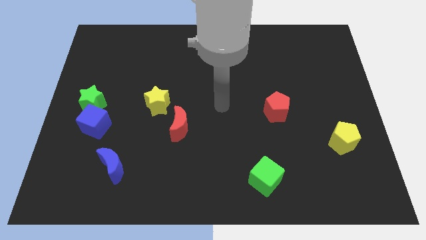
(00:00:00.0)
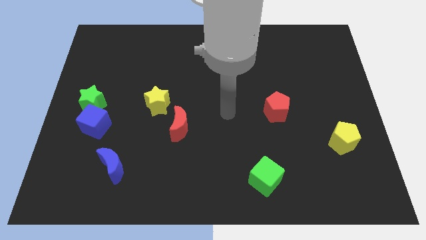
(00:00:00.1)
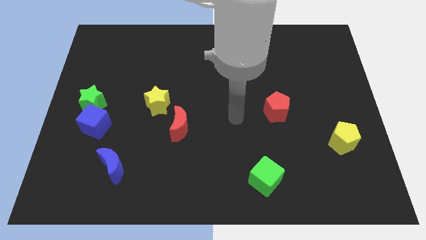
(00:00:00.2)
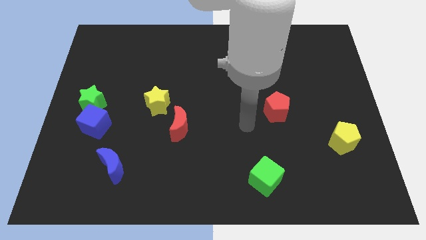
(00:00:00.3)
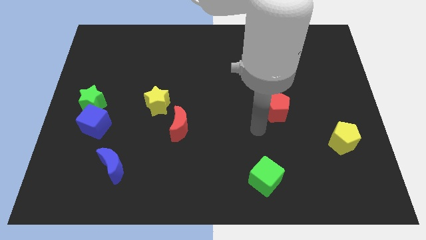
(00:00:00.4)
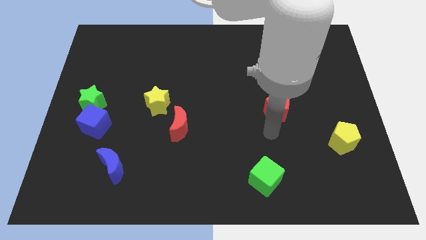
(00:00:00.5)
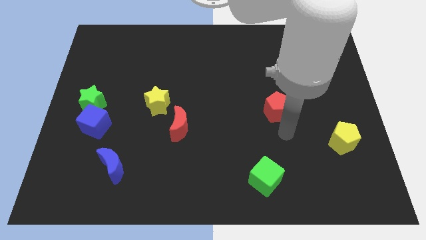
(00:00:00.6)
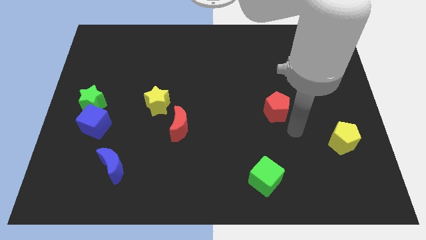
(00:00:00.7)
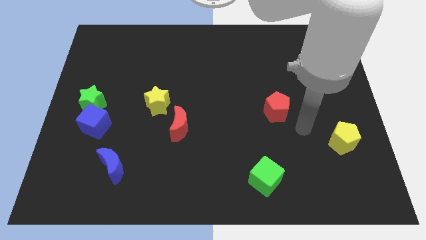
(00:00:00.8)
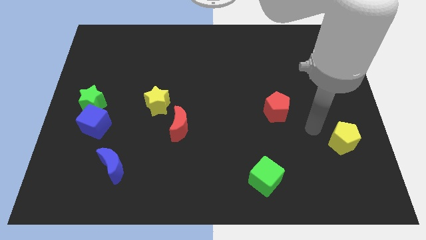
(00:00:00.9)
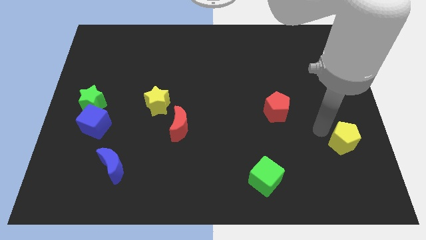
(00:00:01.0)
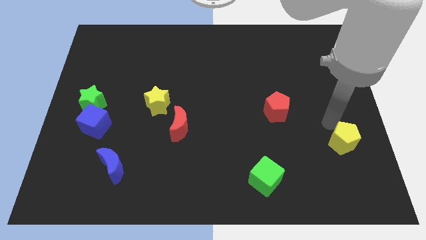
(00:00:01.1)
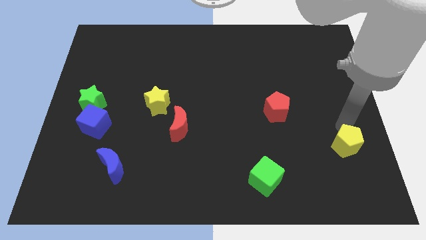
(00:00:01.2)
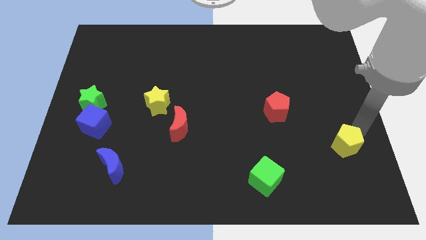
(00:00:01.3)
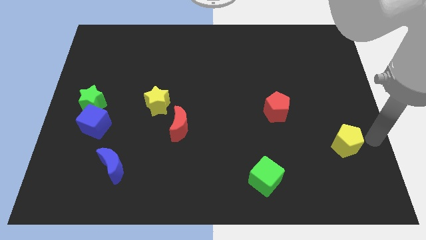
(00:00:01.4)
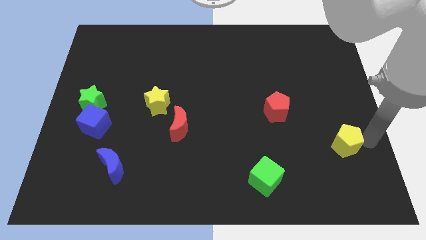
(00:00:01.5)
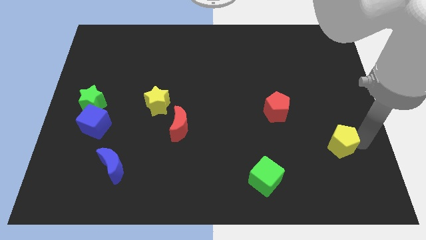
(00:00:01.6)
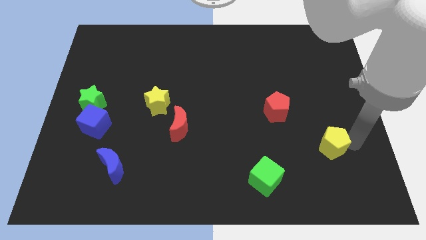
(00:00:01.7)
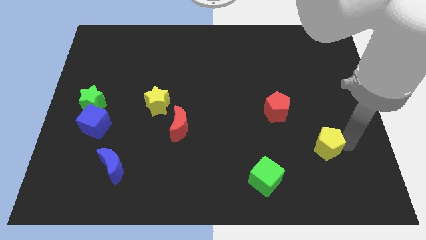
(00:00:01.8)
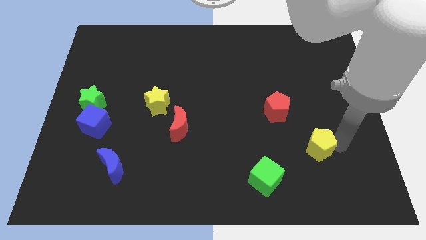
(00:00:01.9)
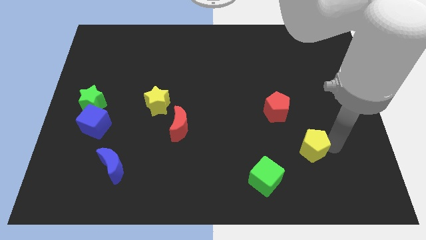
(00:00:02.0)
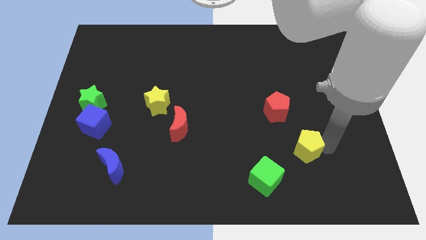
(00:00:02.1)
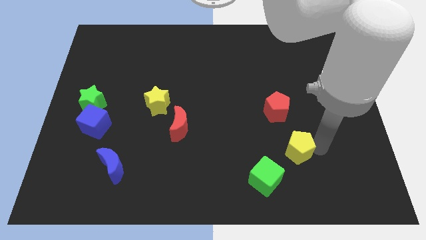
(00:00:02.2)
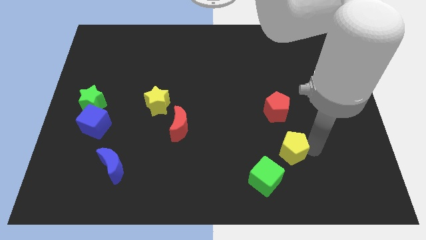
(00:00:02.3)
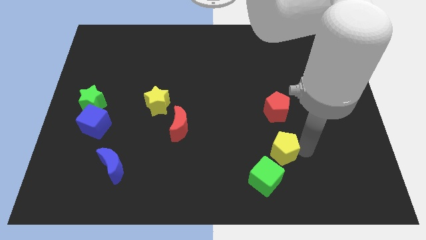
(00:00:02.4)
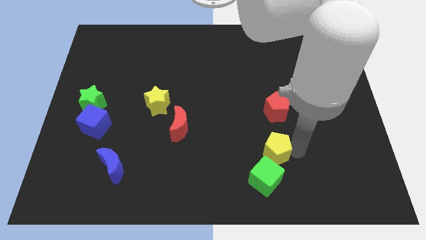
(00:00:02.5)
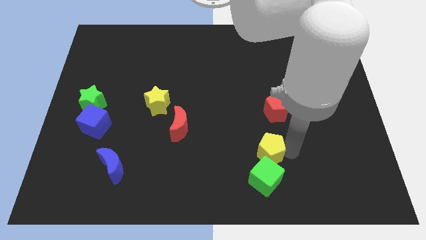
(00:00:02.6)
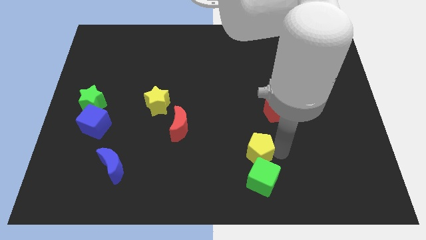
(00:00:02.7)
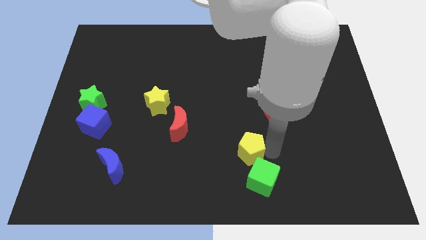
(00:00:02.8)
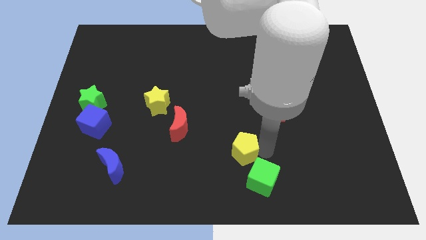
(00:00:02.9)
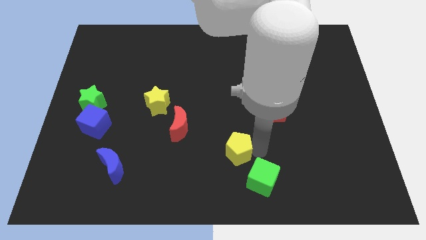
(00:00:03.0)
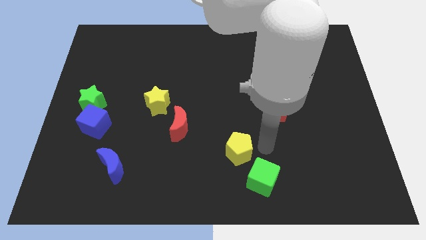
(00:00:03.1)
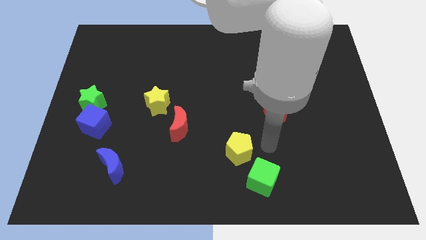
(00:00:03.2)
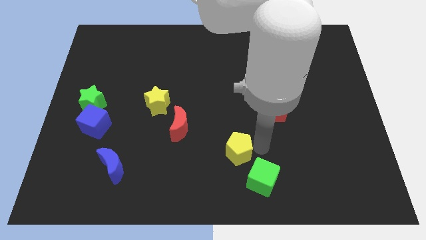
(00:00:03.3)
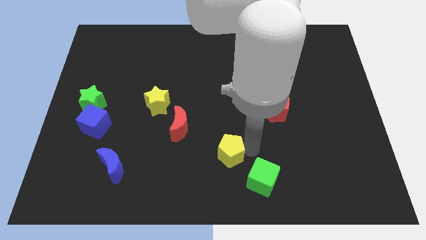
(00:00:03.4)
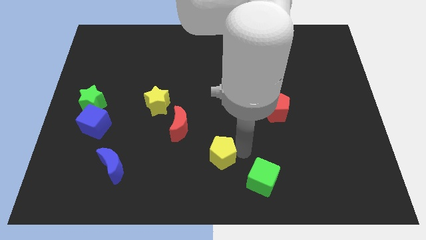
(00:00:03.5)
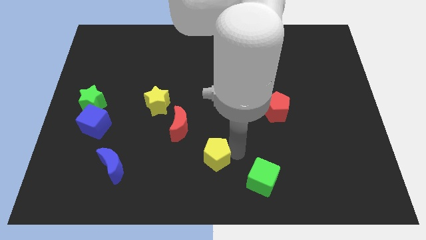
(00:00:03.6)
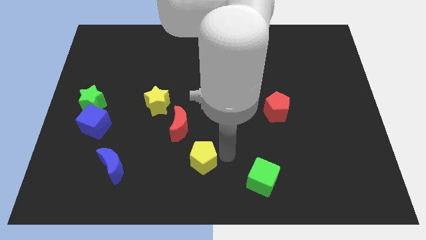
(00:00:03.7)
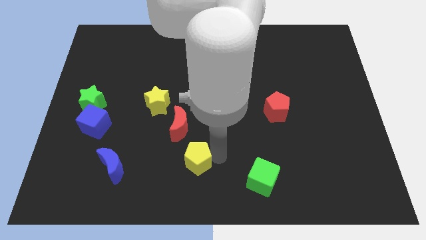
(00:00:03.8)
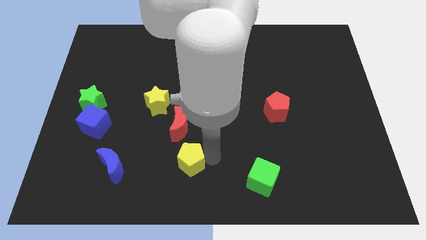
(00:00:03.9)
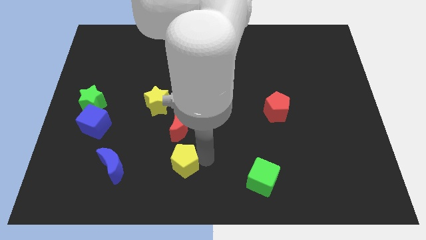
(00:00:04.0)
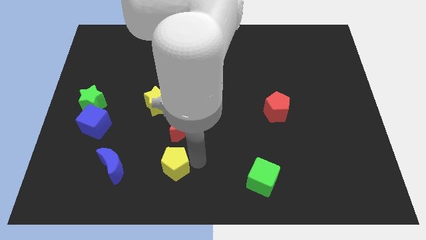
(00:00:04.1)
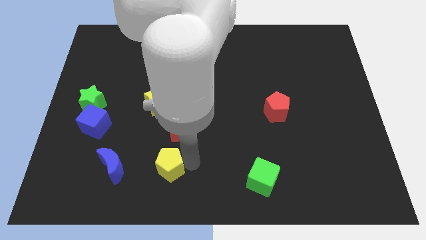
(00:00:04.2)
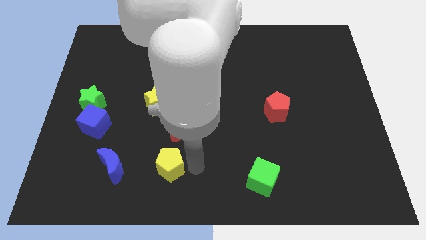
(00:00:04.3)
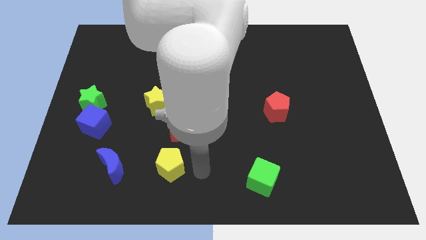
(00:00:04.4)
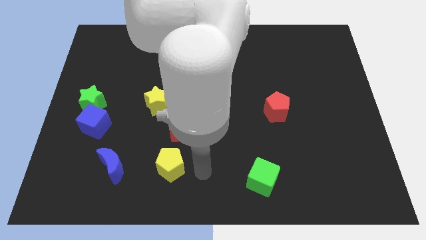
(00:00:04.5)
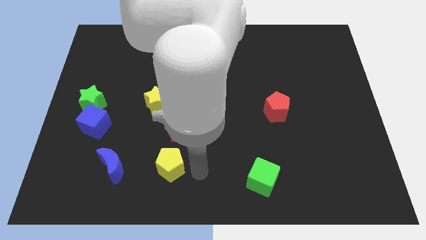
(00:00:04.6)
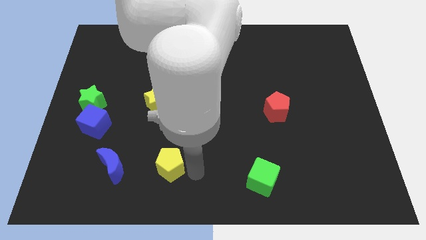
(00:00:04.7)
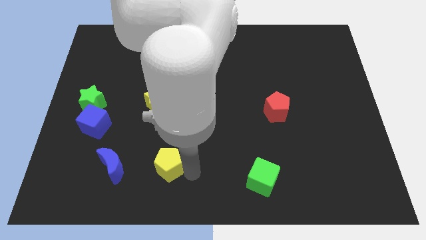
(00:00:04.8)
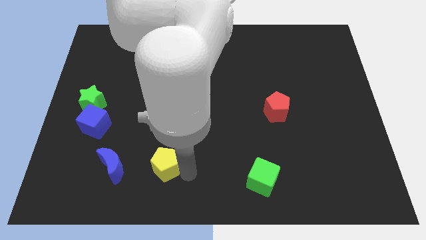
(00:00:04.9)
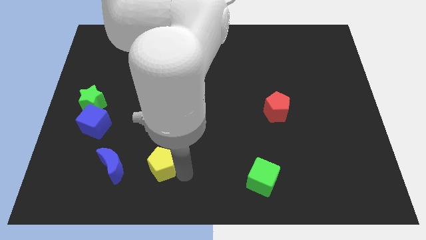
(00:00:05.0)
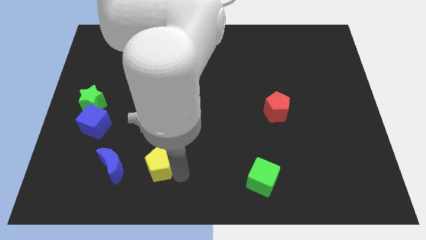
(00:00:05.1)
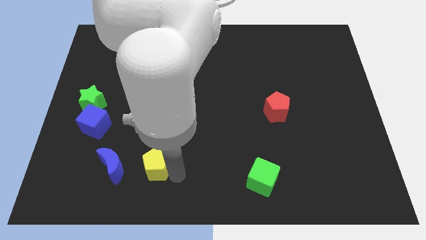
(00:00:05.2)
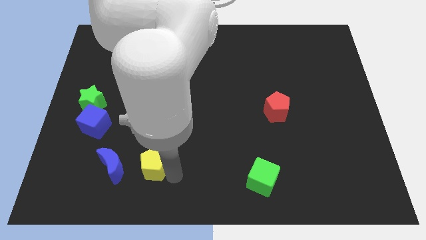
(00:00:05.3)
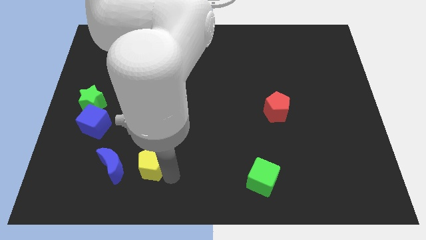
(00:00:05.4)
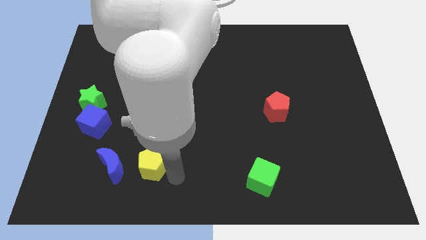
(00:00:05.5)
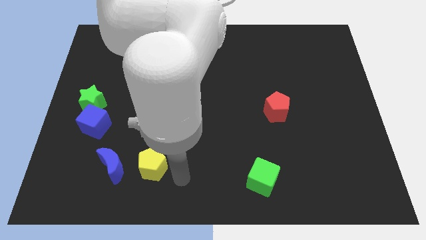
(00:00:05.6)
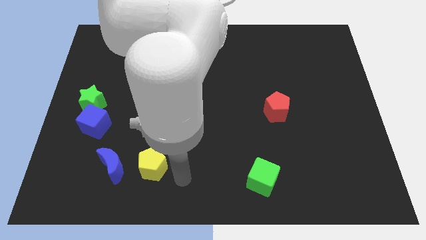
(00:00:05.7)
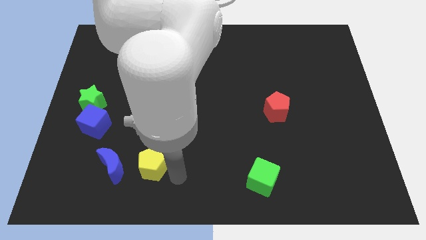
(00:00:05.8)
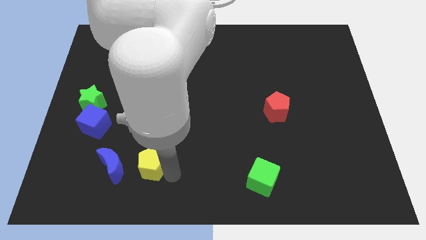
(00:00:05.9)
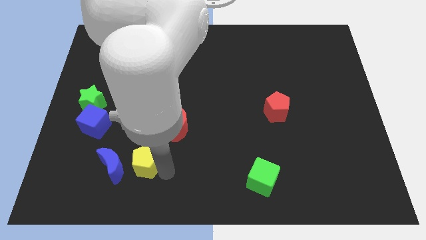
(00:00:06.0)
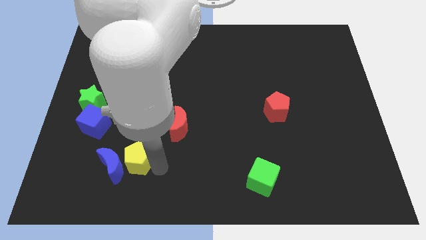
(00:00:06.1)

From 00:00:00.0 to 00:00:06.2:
slide the yellow pentagon towards the blue moon

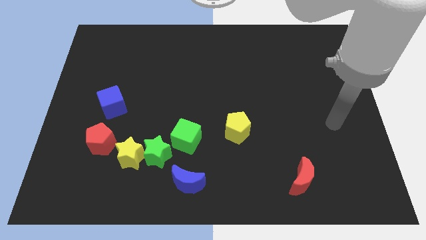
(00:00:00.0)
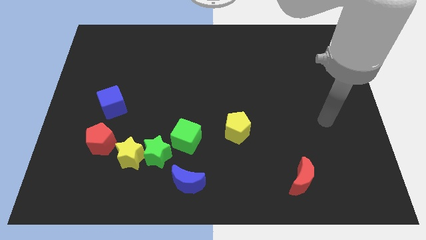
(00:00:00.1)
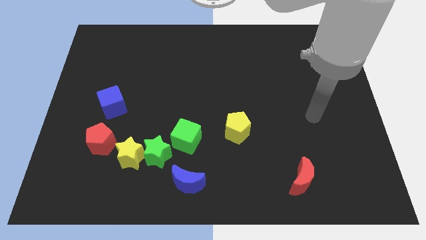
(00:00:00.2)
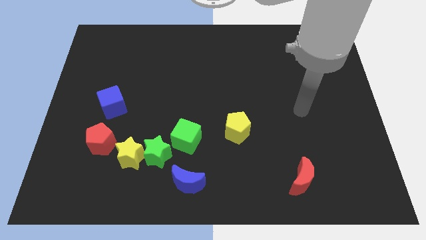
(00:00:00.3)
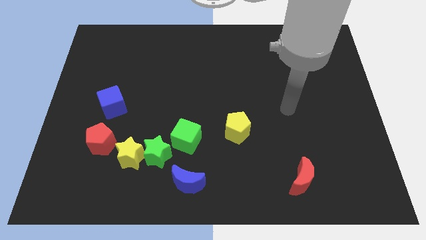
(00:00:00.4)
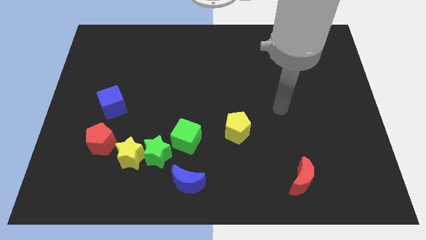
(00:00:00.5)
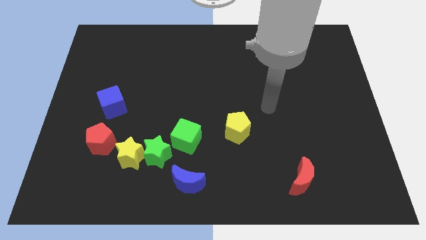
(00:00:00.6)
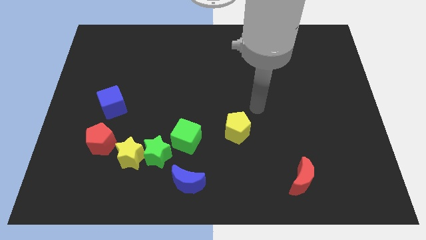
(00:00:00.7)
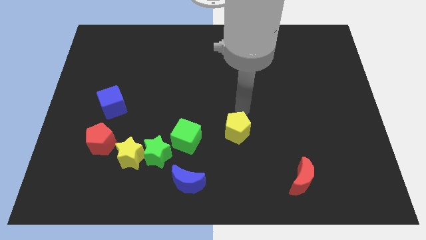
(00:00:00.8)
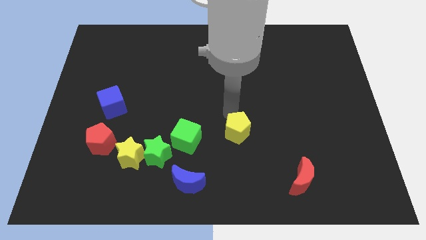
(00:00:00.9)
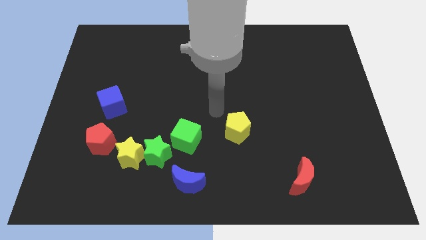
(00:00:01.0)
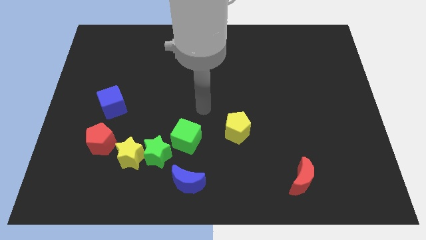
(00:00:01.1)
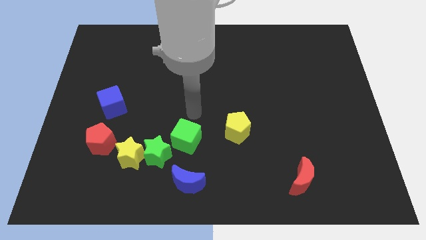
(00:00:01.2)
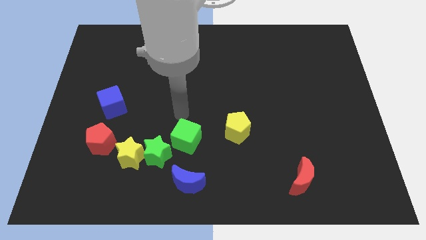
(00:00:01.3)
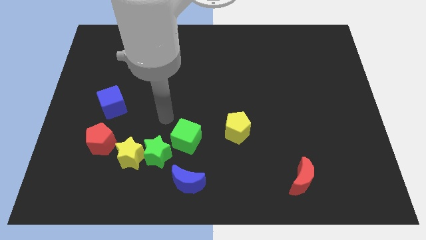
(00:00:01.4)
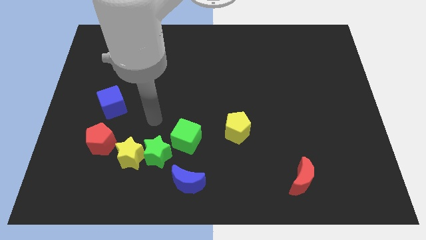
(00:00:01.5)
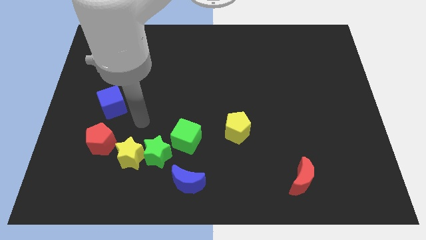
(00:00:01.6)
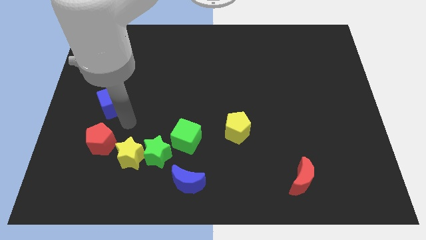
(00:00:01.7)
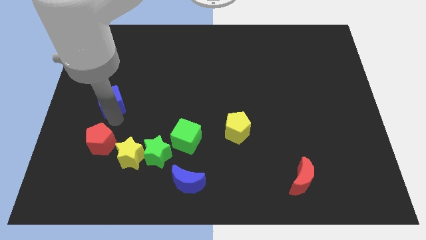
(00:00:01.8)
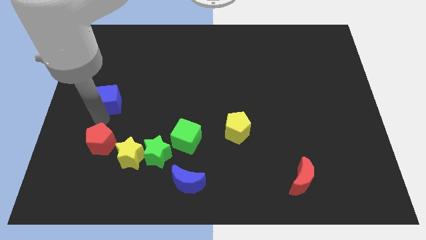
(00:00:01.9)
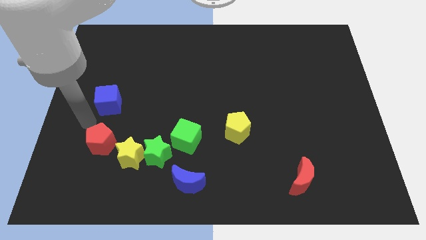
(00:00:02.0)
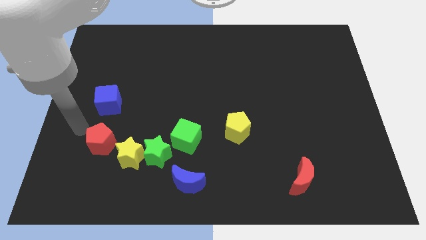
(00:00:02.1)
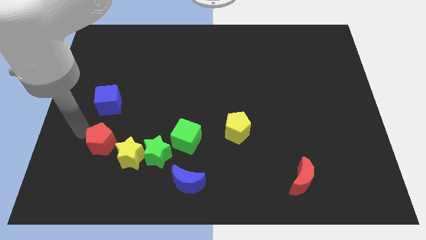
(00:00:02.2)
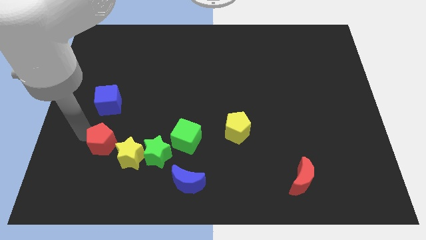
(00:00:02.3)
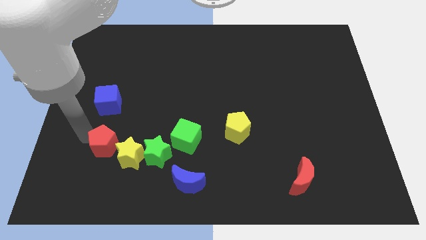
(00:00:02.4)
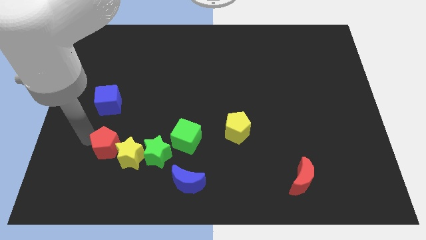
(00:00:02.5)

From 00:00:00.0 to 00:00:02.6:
put the red pentagon close to the yellow star
